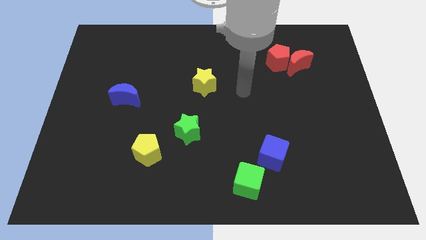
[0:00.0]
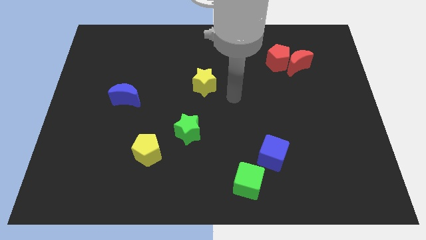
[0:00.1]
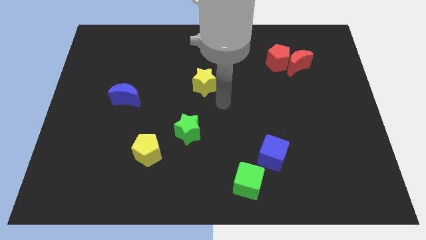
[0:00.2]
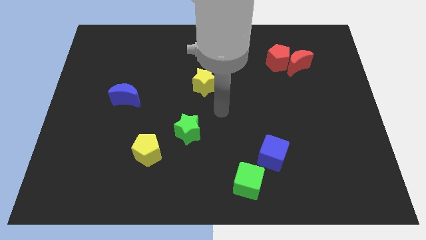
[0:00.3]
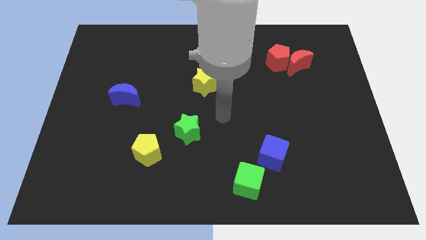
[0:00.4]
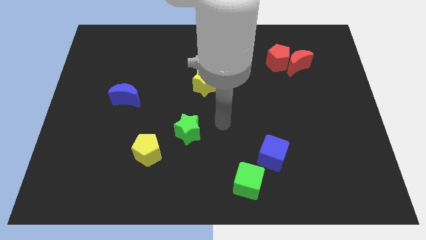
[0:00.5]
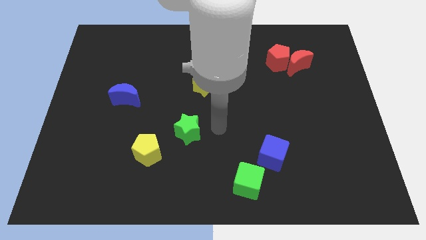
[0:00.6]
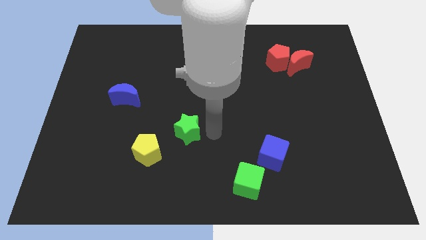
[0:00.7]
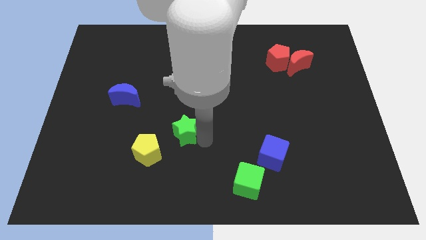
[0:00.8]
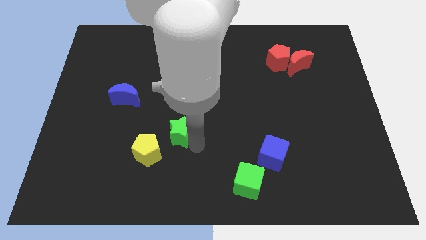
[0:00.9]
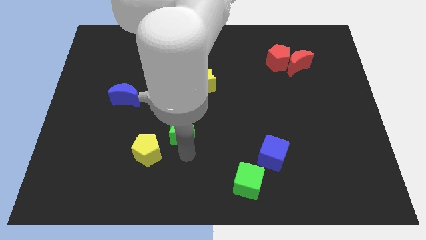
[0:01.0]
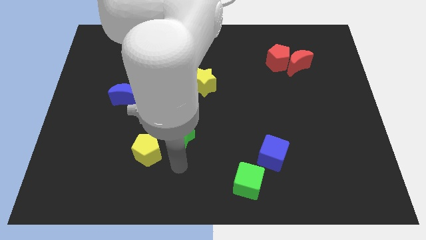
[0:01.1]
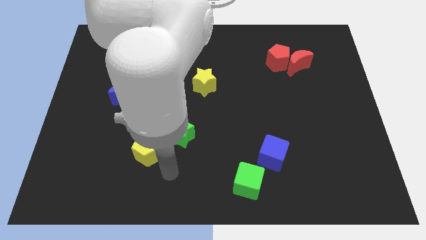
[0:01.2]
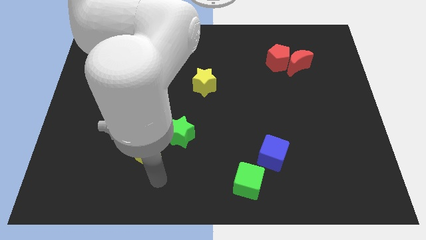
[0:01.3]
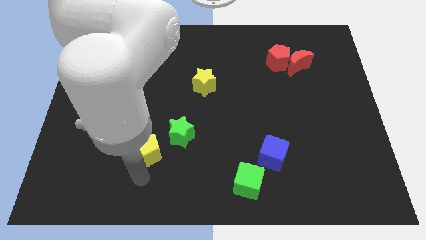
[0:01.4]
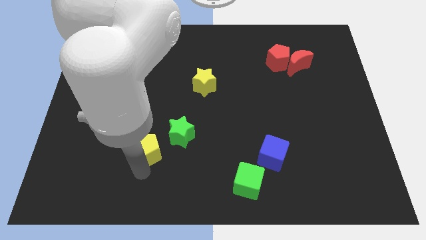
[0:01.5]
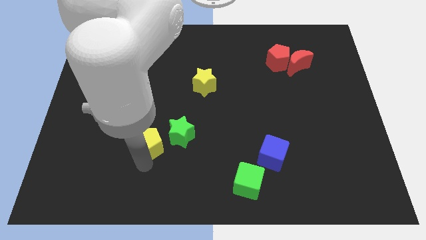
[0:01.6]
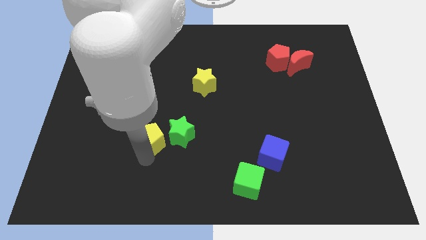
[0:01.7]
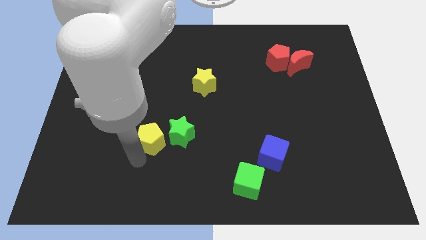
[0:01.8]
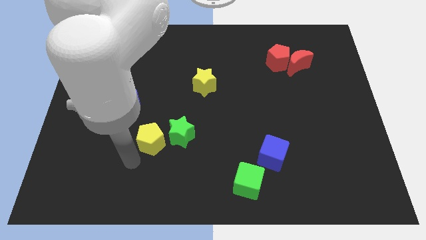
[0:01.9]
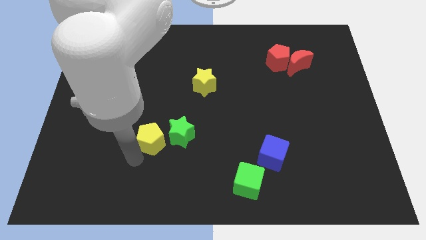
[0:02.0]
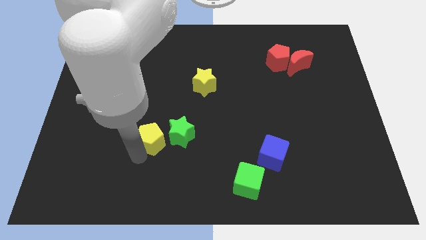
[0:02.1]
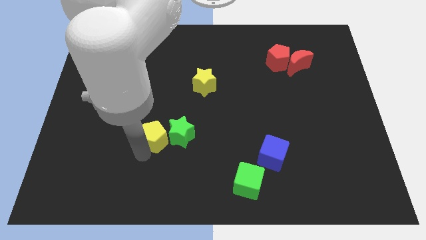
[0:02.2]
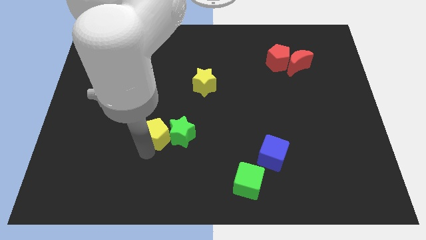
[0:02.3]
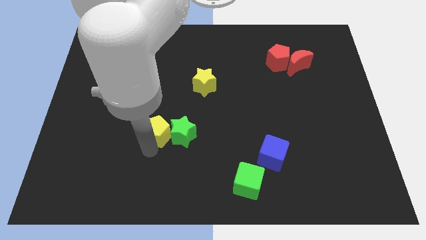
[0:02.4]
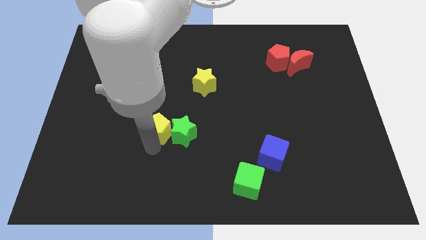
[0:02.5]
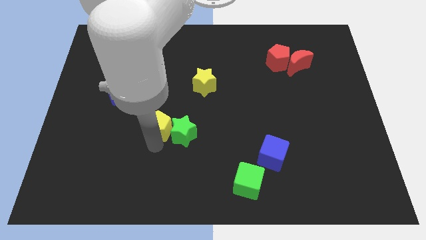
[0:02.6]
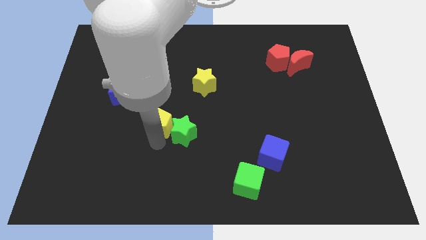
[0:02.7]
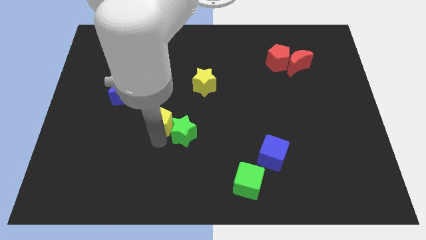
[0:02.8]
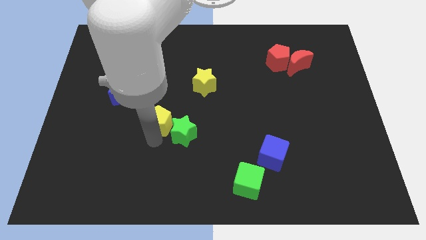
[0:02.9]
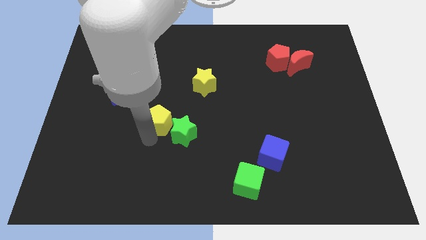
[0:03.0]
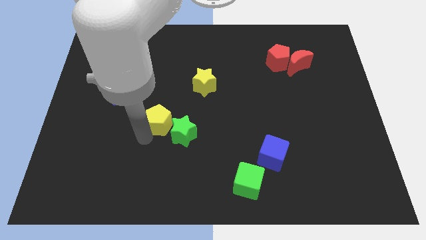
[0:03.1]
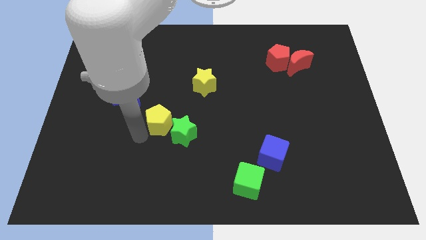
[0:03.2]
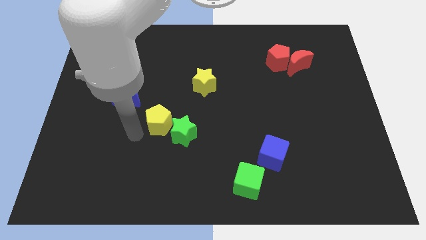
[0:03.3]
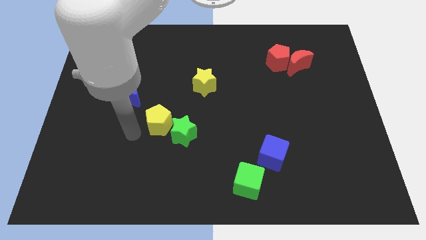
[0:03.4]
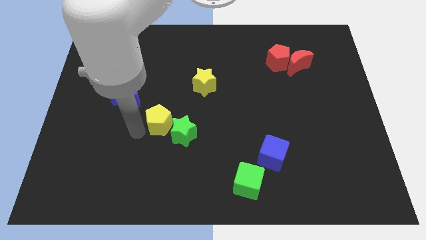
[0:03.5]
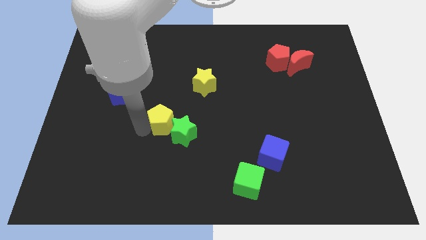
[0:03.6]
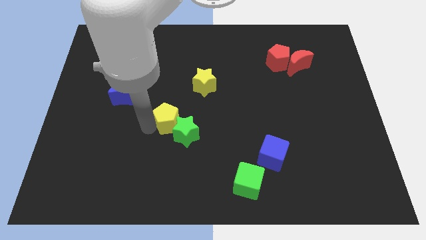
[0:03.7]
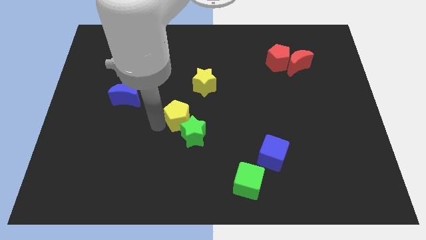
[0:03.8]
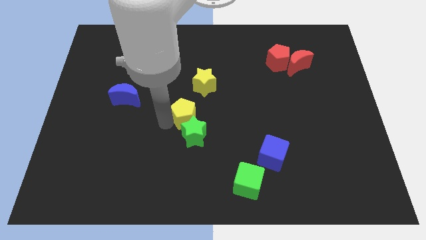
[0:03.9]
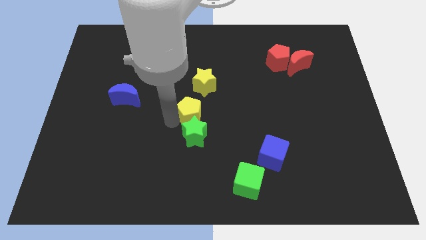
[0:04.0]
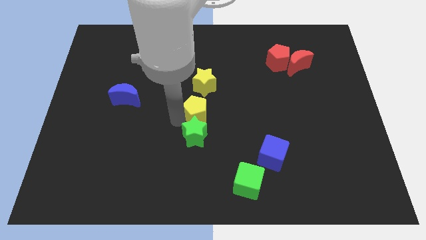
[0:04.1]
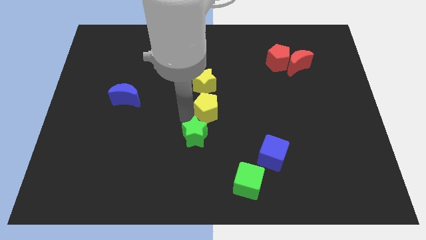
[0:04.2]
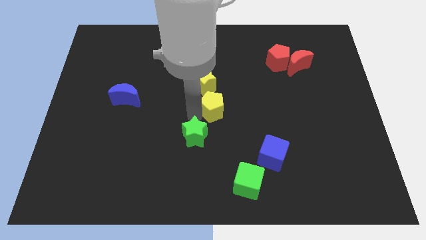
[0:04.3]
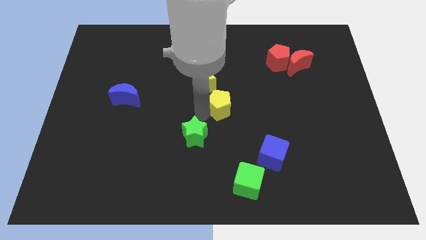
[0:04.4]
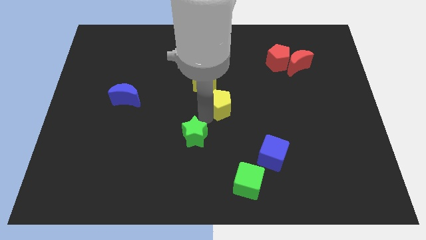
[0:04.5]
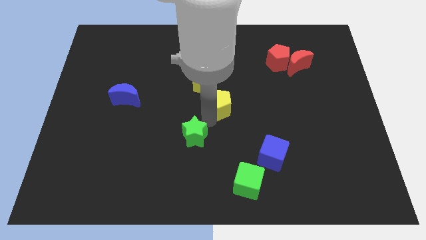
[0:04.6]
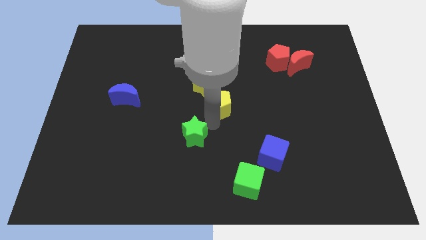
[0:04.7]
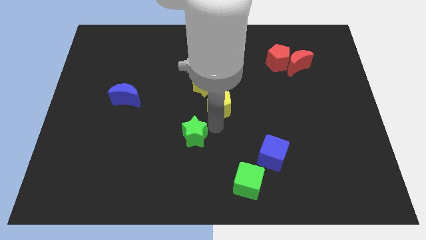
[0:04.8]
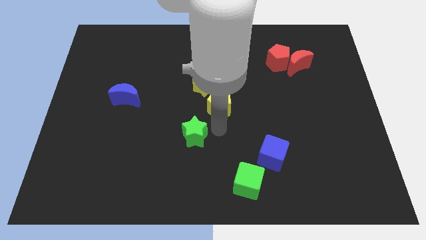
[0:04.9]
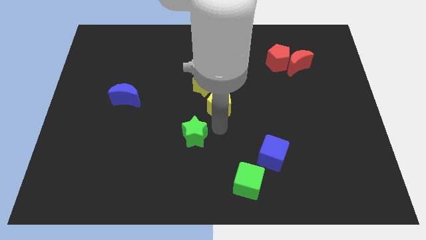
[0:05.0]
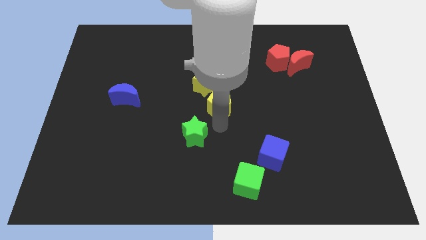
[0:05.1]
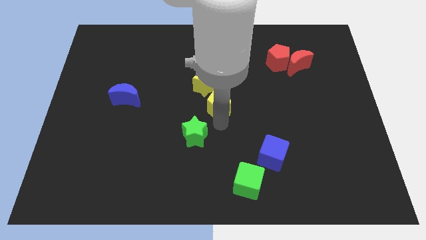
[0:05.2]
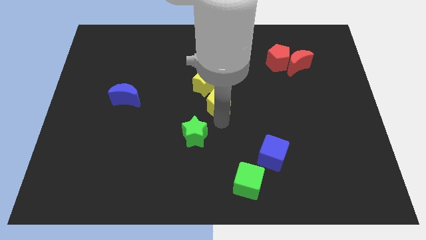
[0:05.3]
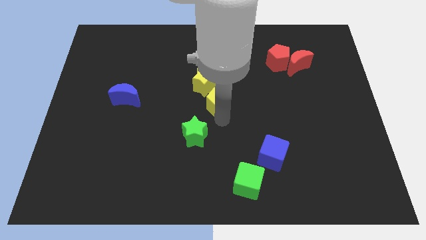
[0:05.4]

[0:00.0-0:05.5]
slide the yellow pentagon up and to the right diagonally

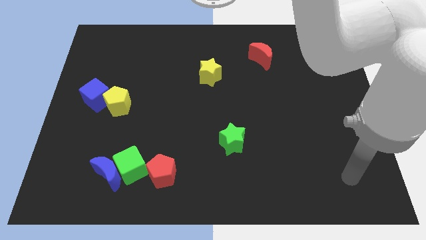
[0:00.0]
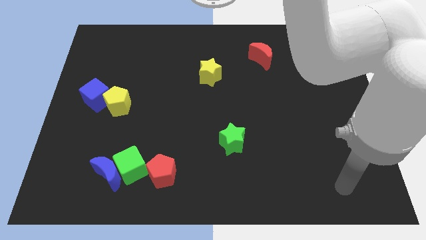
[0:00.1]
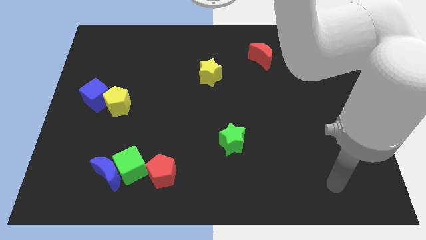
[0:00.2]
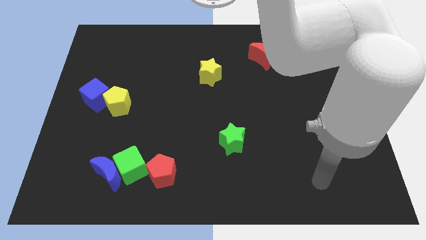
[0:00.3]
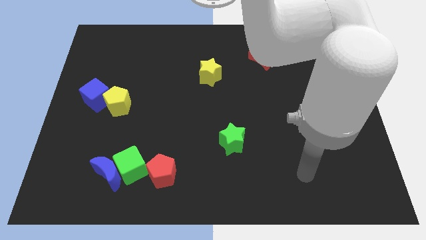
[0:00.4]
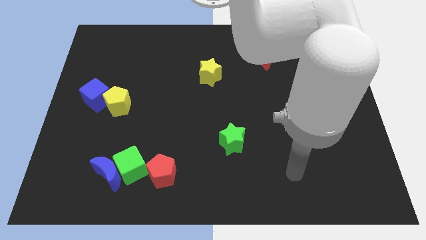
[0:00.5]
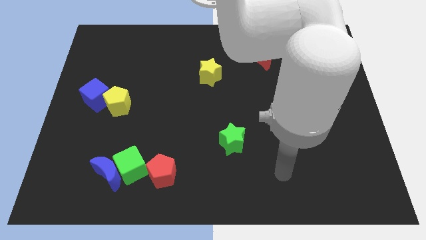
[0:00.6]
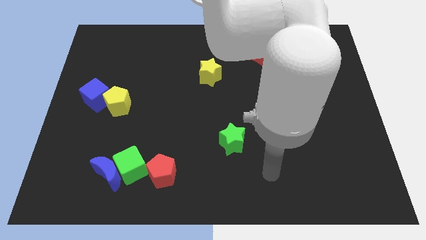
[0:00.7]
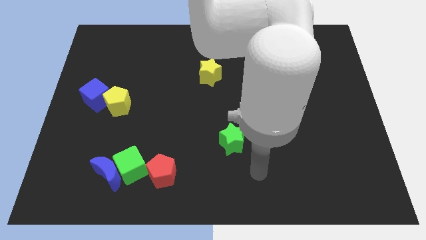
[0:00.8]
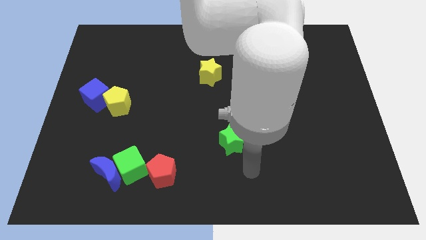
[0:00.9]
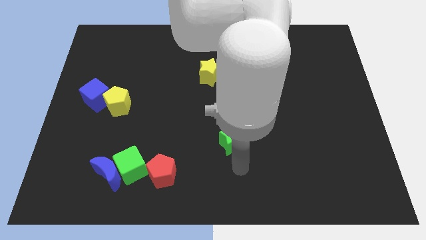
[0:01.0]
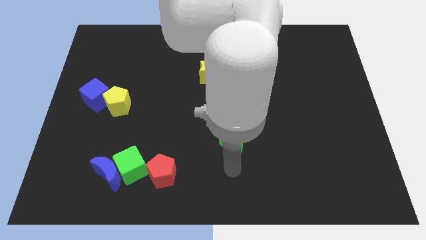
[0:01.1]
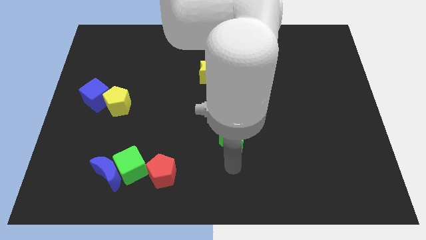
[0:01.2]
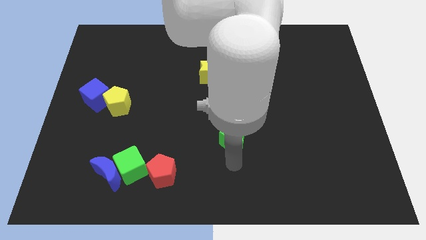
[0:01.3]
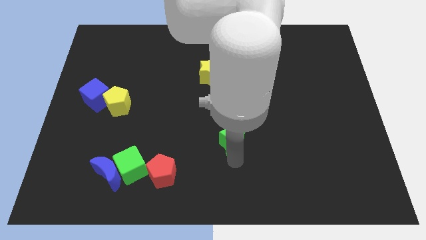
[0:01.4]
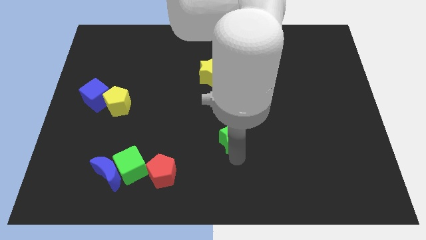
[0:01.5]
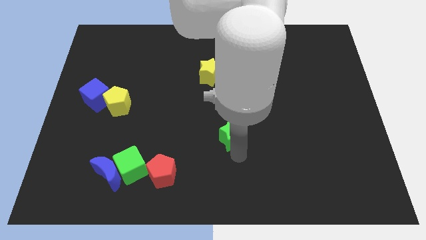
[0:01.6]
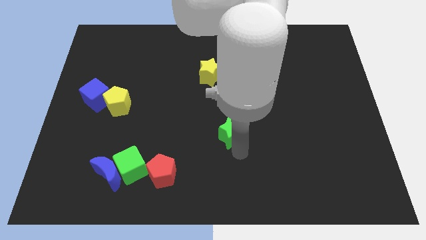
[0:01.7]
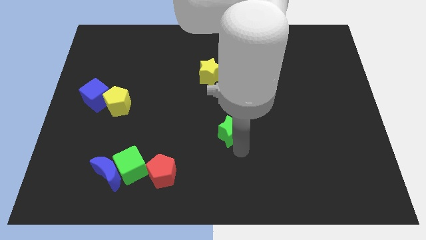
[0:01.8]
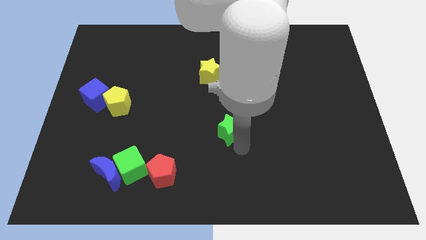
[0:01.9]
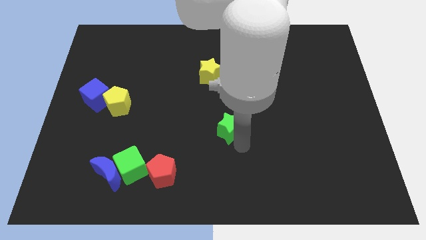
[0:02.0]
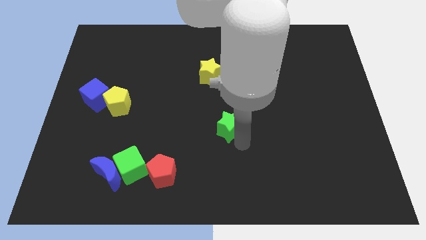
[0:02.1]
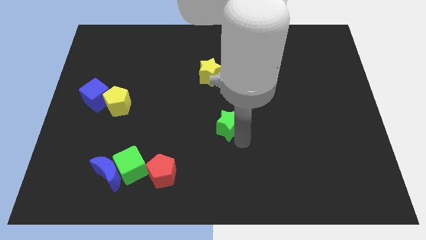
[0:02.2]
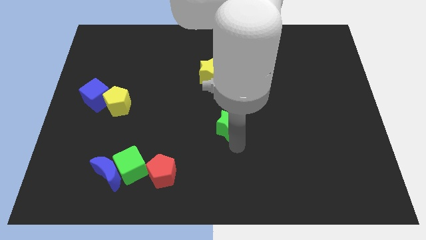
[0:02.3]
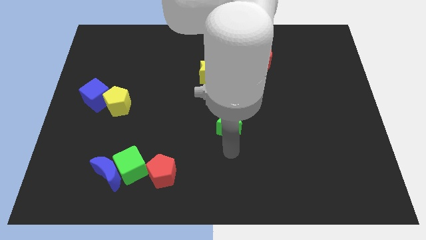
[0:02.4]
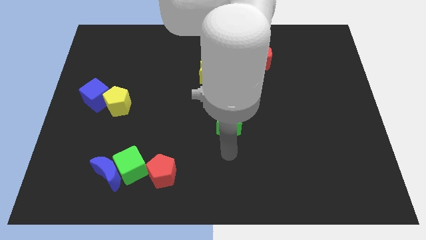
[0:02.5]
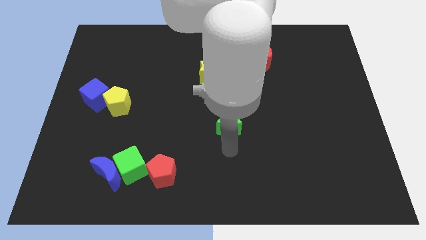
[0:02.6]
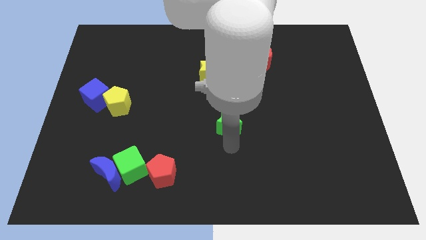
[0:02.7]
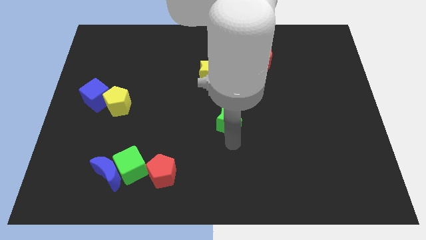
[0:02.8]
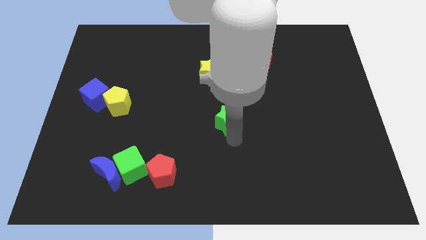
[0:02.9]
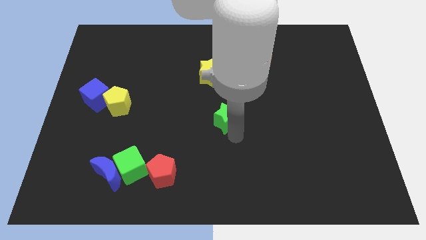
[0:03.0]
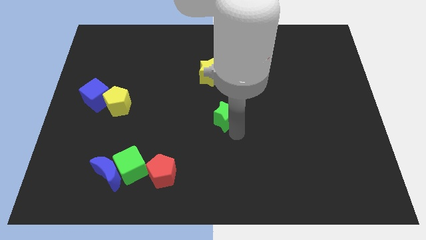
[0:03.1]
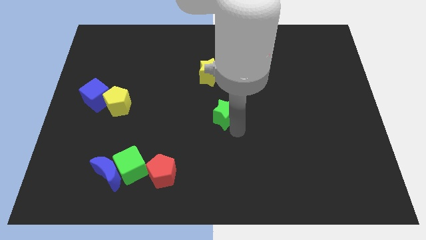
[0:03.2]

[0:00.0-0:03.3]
push the green star a little bit upwards
